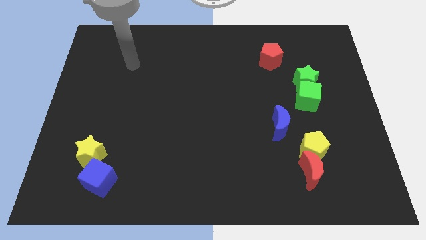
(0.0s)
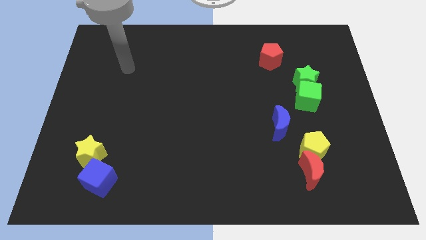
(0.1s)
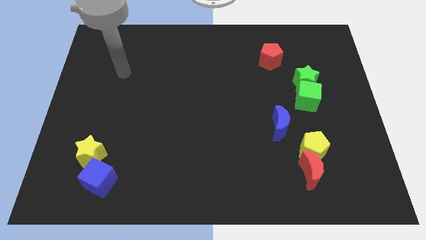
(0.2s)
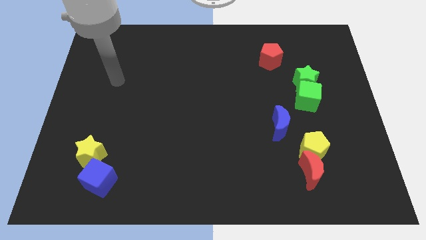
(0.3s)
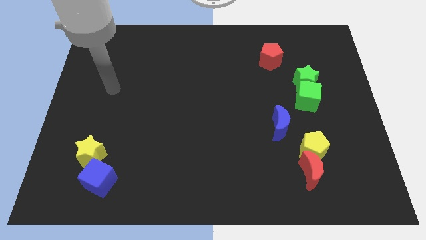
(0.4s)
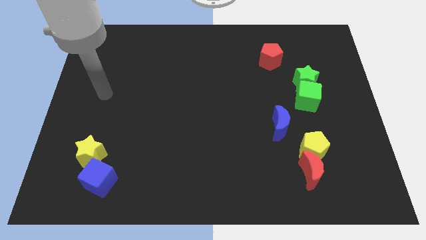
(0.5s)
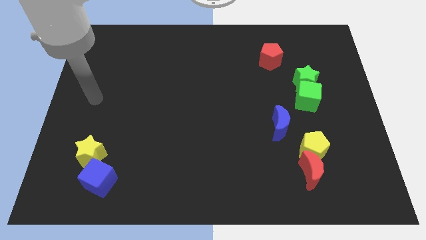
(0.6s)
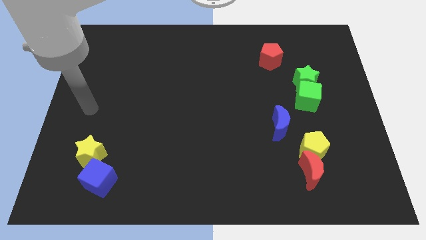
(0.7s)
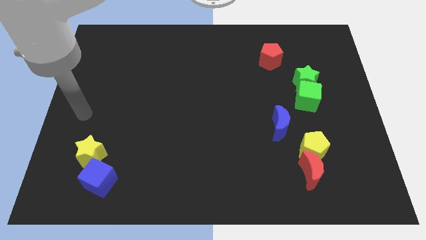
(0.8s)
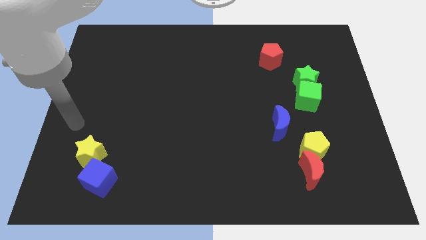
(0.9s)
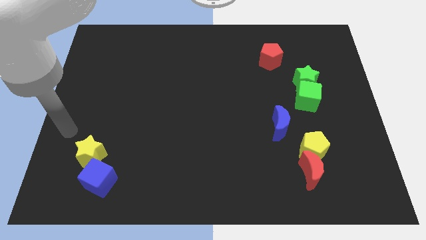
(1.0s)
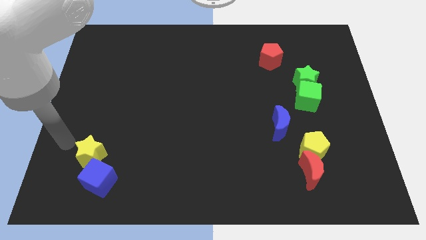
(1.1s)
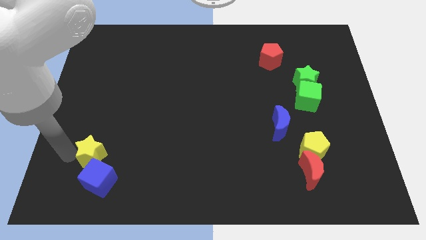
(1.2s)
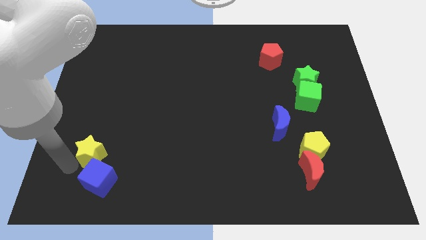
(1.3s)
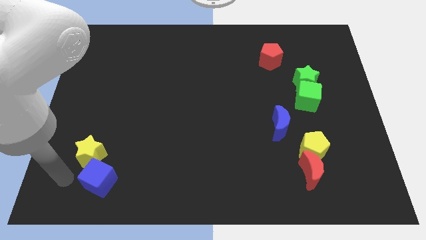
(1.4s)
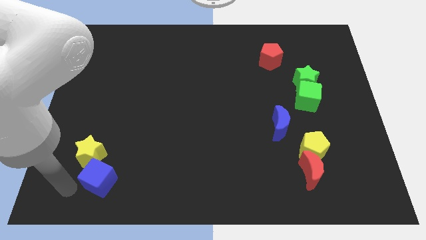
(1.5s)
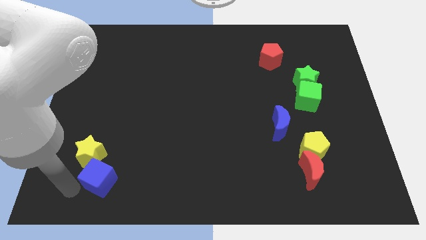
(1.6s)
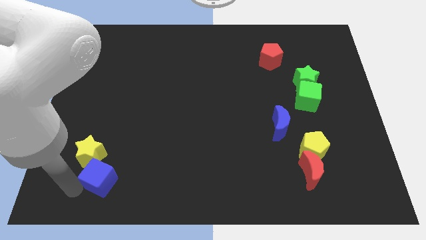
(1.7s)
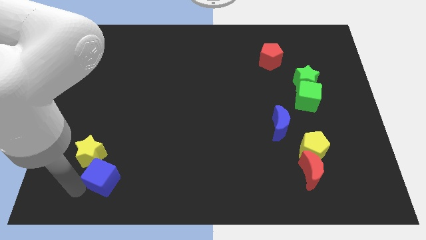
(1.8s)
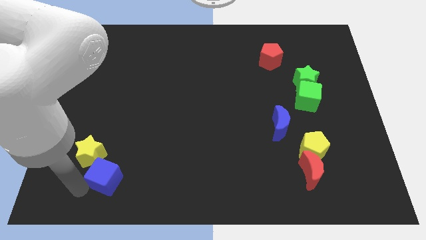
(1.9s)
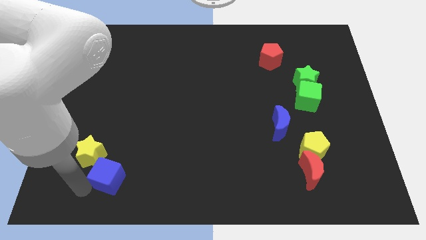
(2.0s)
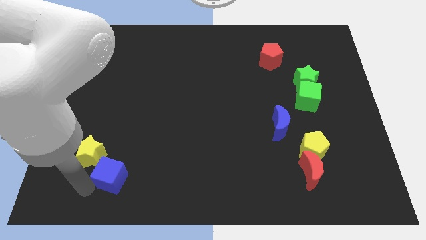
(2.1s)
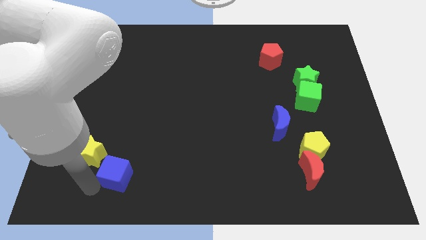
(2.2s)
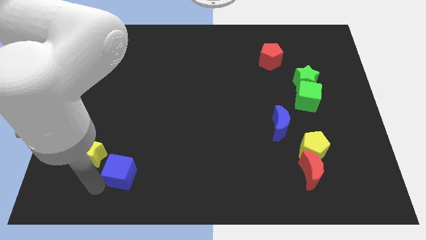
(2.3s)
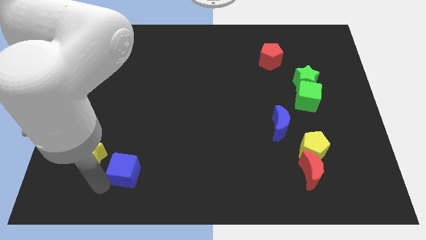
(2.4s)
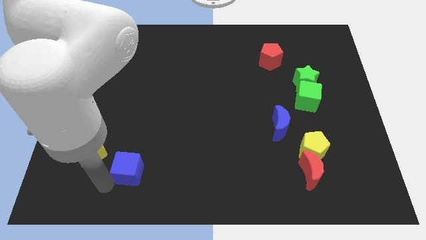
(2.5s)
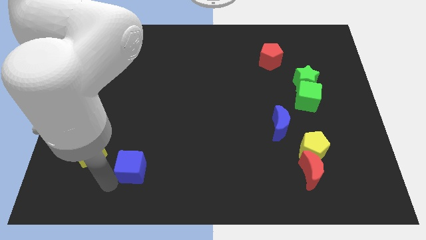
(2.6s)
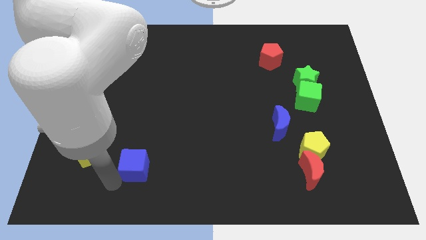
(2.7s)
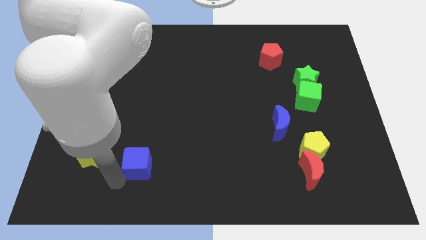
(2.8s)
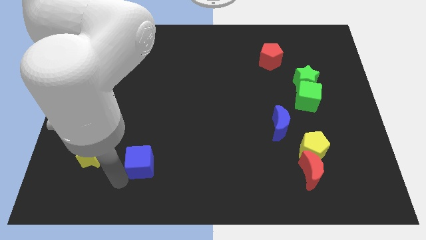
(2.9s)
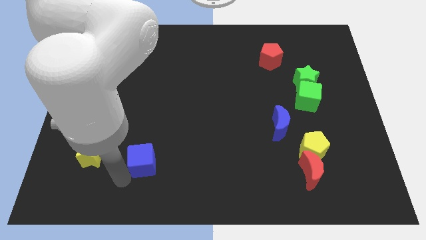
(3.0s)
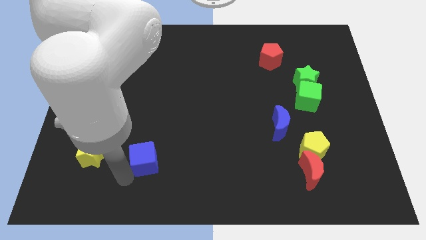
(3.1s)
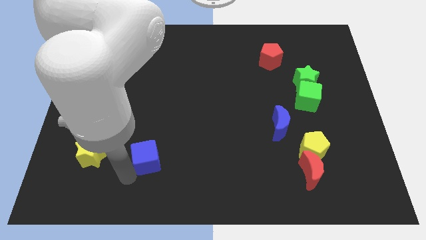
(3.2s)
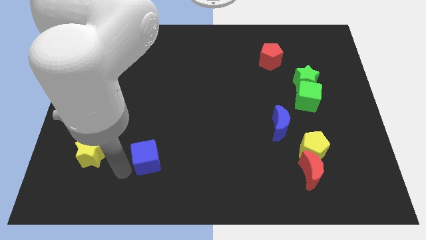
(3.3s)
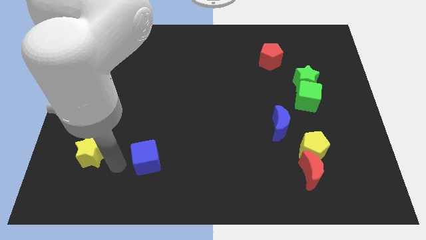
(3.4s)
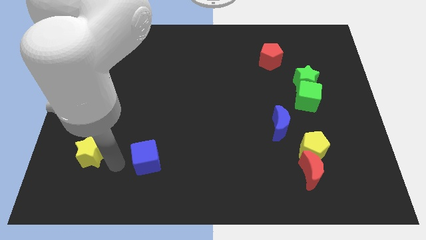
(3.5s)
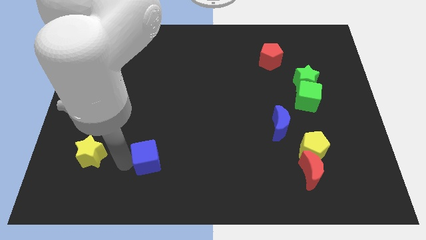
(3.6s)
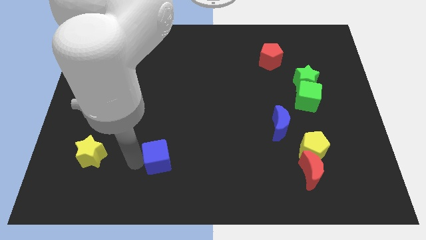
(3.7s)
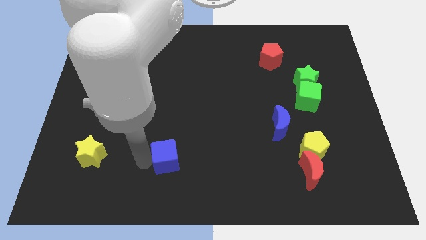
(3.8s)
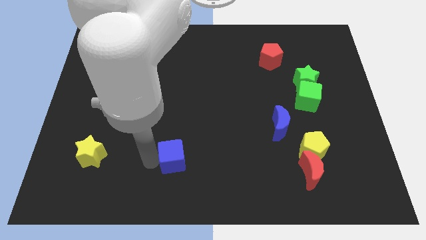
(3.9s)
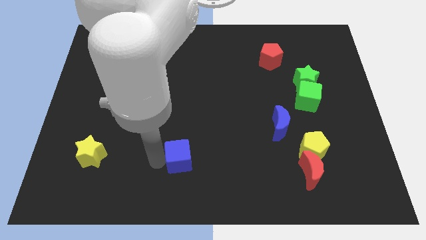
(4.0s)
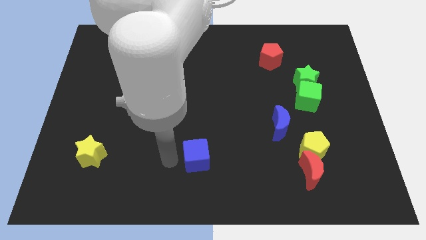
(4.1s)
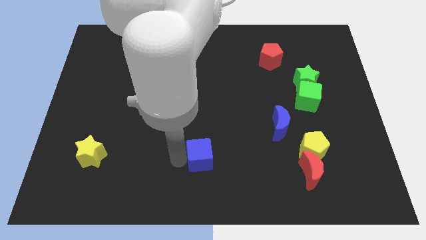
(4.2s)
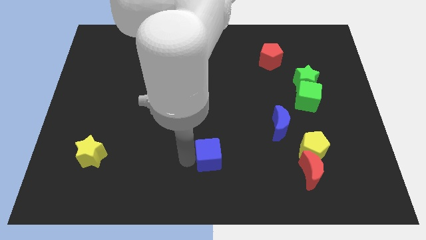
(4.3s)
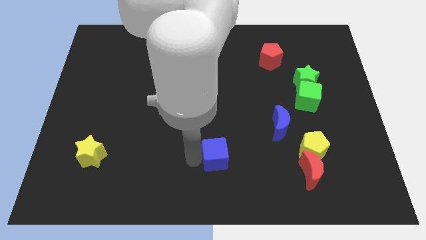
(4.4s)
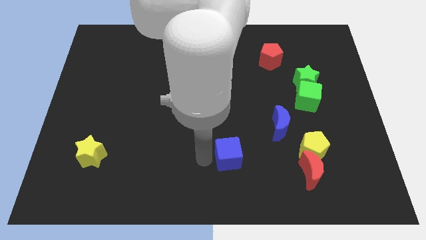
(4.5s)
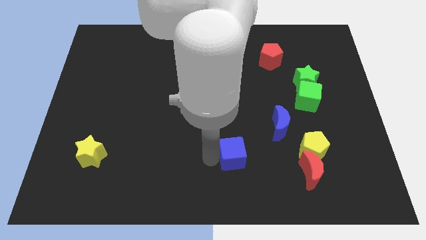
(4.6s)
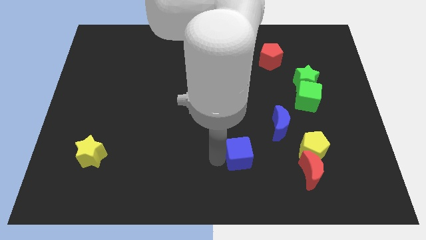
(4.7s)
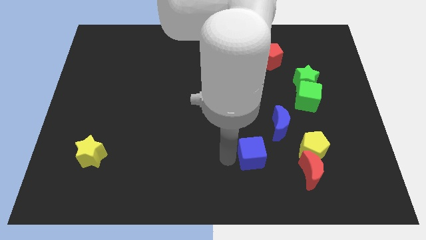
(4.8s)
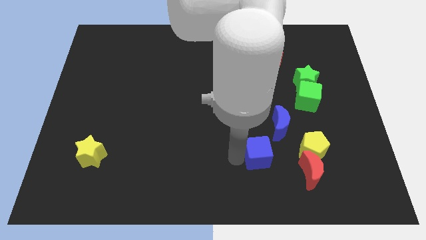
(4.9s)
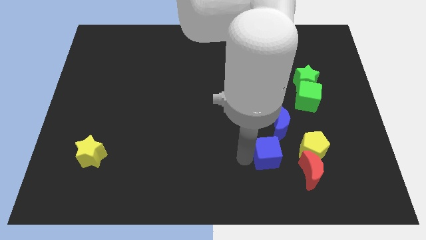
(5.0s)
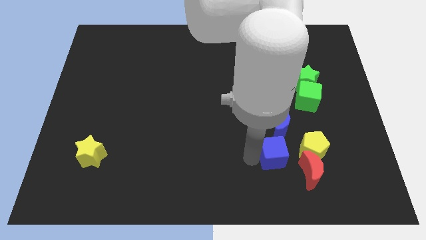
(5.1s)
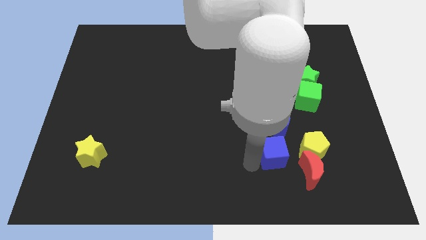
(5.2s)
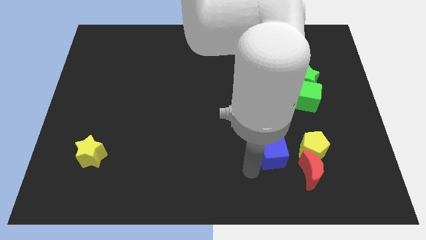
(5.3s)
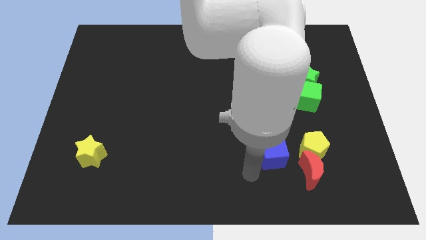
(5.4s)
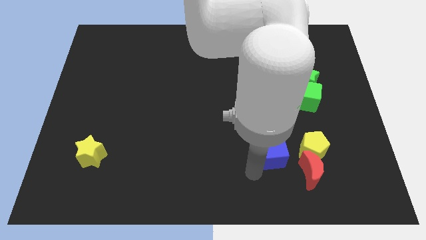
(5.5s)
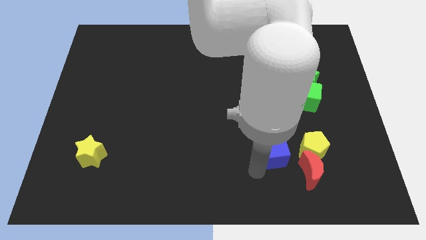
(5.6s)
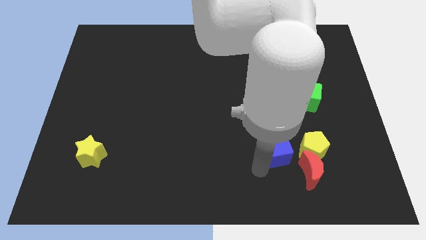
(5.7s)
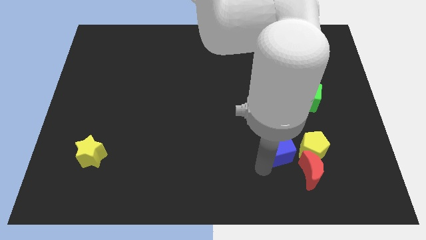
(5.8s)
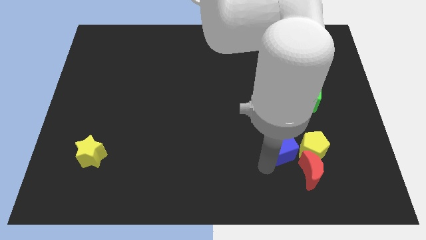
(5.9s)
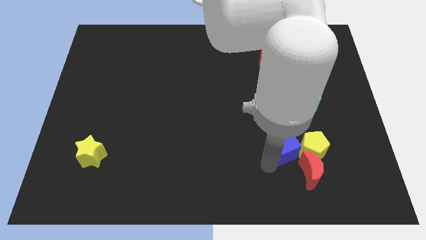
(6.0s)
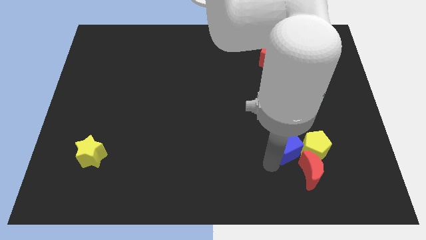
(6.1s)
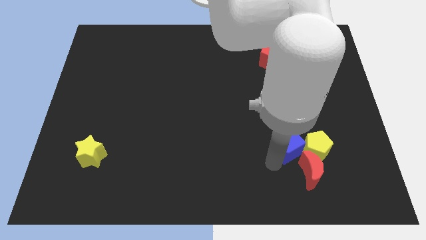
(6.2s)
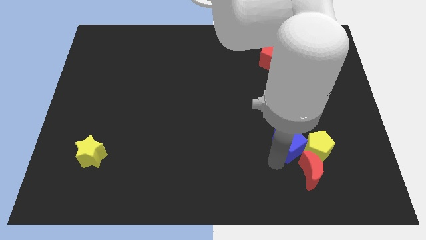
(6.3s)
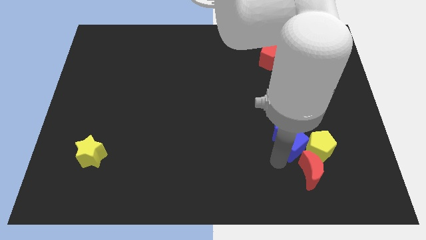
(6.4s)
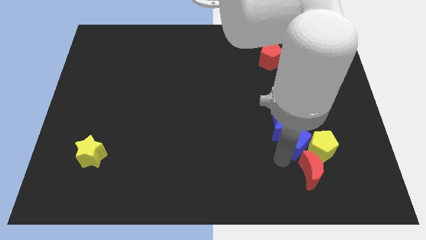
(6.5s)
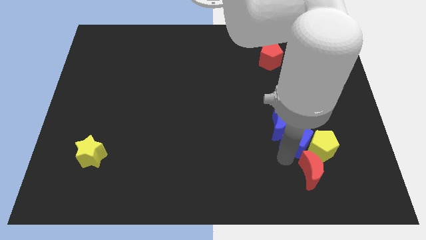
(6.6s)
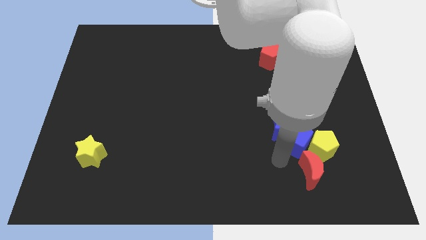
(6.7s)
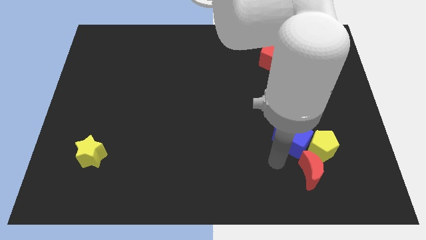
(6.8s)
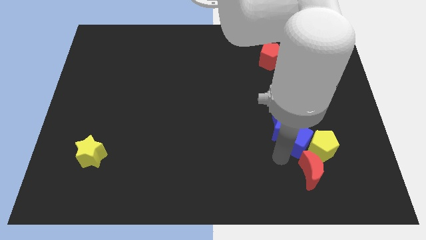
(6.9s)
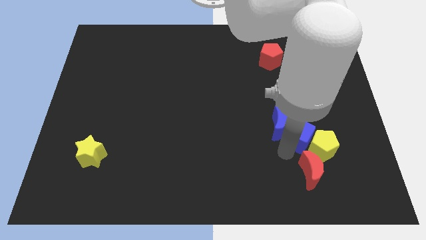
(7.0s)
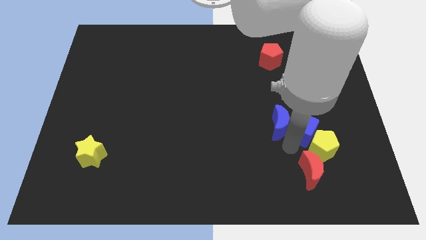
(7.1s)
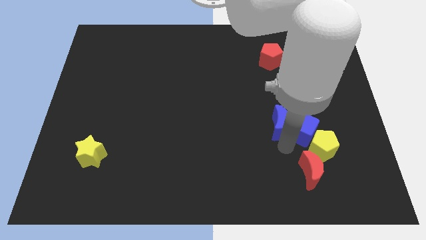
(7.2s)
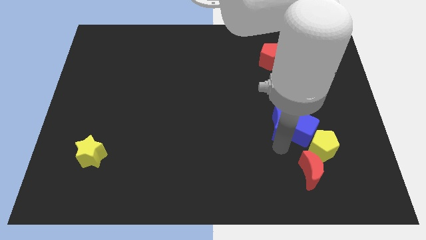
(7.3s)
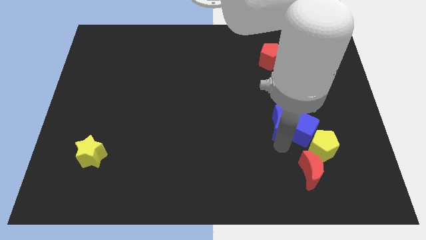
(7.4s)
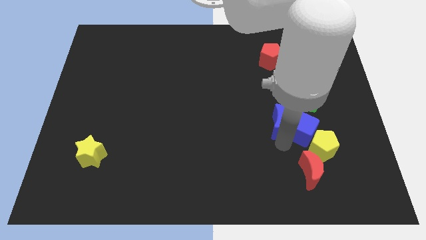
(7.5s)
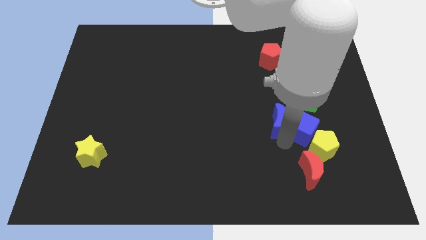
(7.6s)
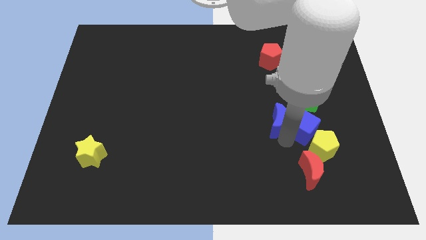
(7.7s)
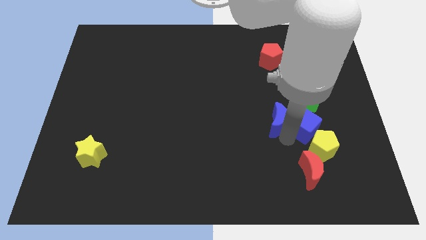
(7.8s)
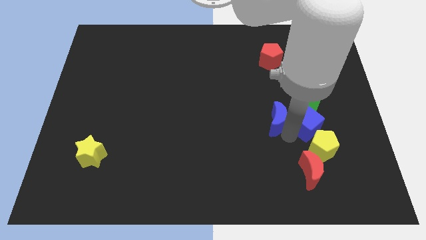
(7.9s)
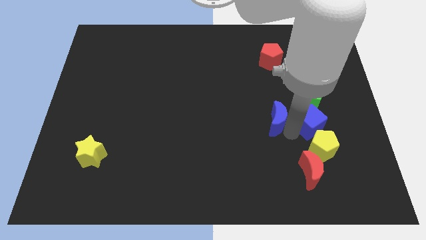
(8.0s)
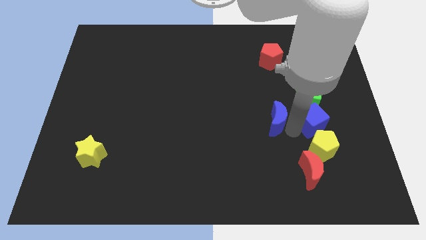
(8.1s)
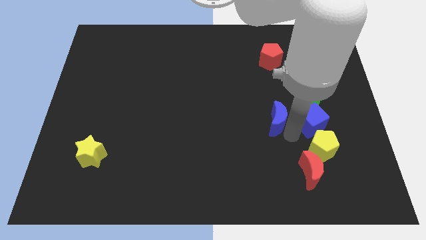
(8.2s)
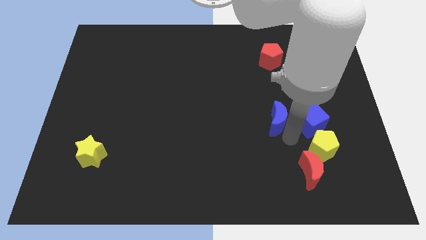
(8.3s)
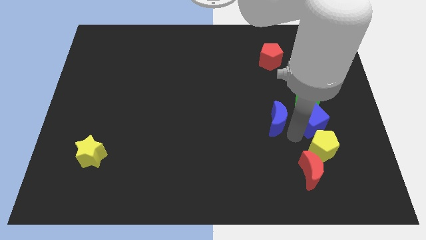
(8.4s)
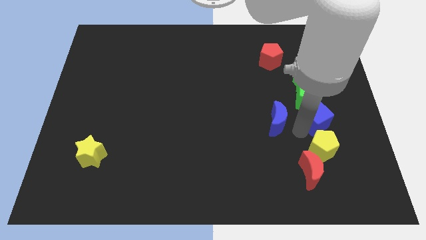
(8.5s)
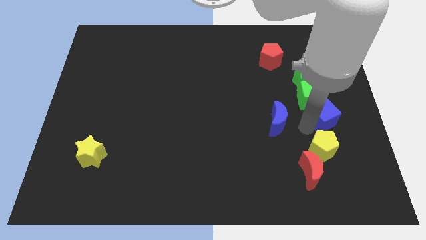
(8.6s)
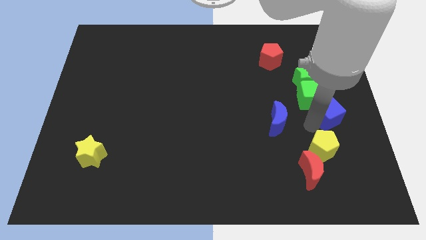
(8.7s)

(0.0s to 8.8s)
slide the blue cube to the right side
